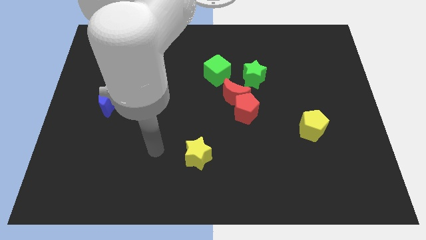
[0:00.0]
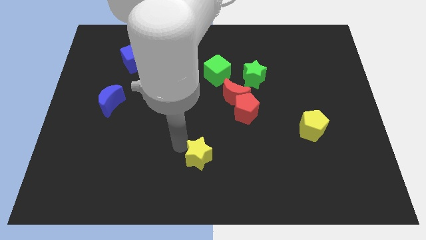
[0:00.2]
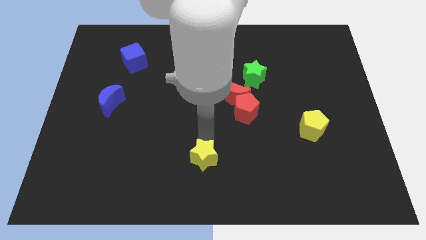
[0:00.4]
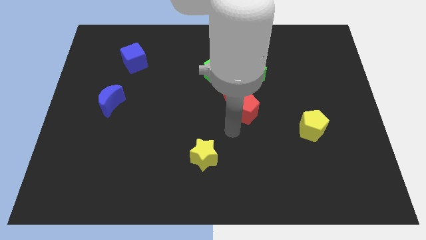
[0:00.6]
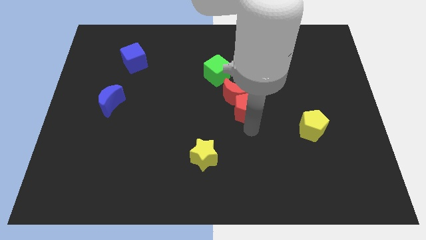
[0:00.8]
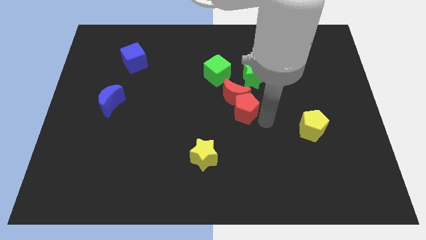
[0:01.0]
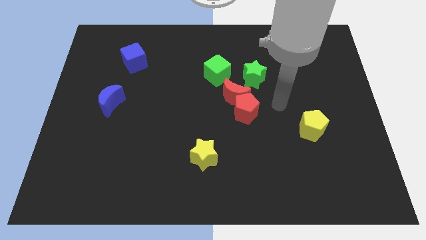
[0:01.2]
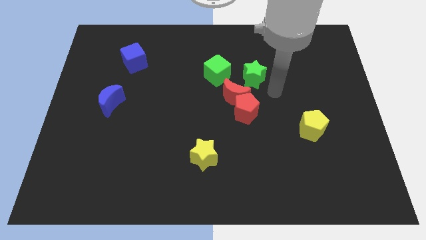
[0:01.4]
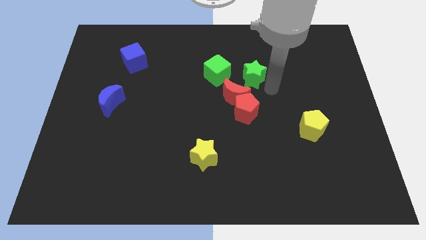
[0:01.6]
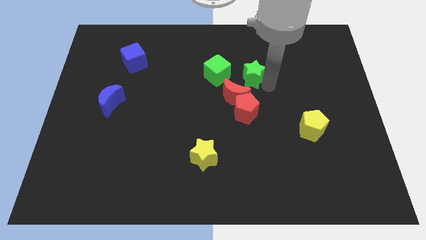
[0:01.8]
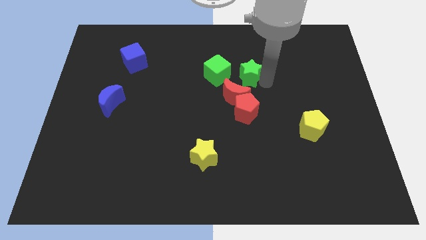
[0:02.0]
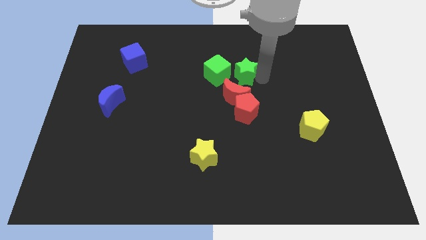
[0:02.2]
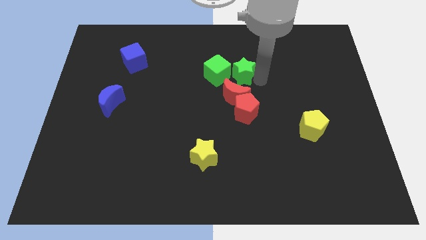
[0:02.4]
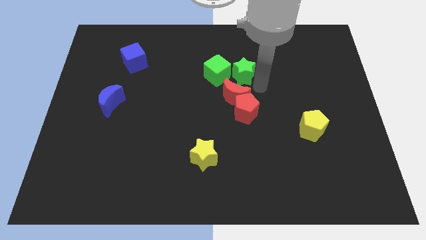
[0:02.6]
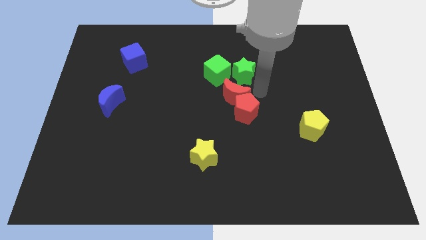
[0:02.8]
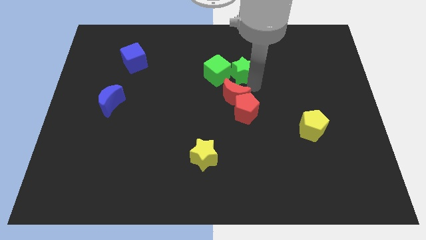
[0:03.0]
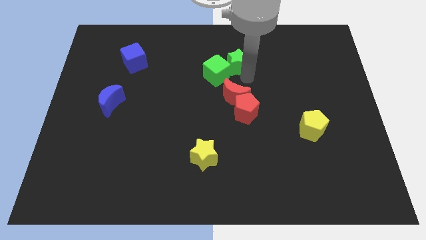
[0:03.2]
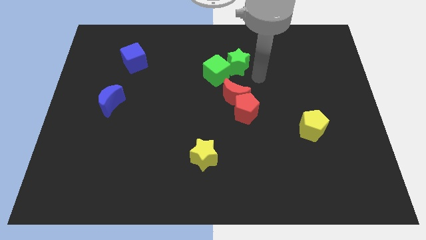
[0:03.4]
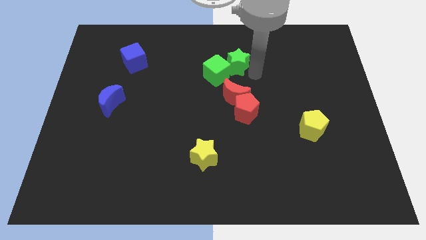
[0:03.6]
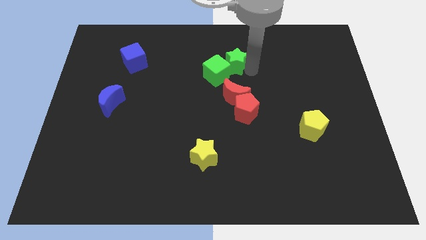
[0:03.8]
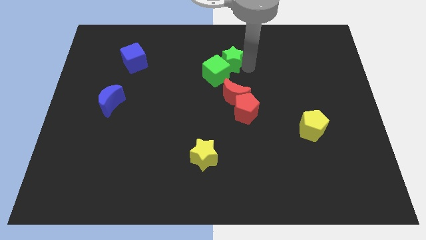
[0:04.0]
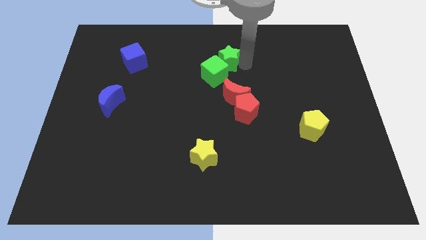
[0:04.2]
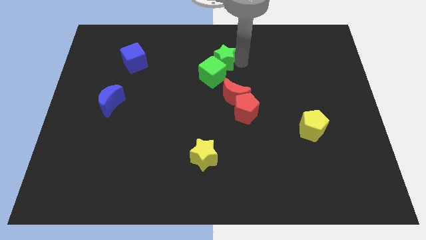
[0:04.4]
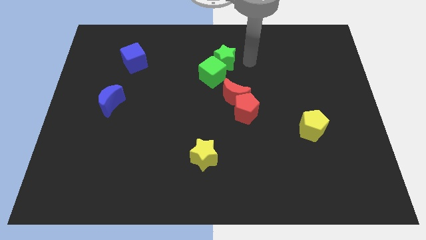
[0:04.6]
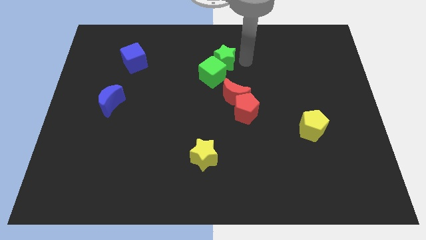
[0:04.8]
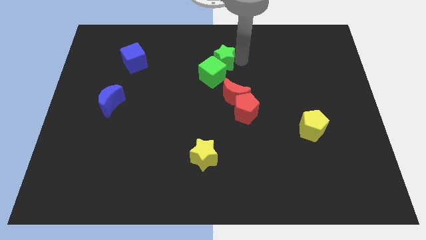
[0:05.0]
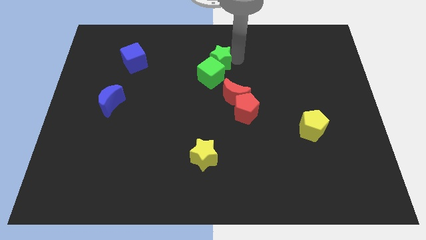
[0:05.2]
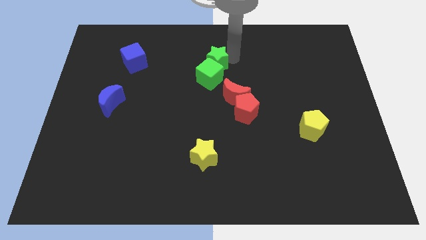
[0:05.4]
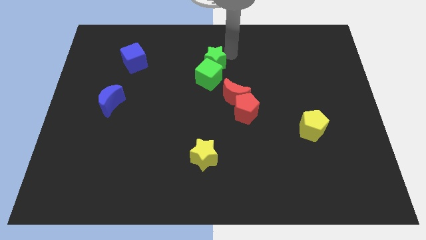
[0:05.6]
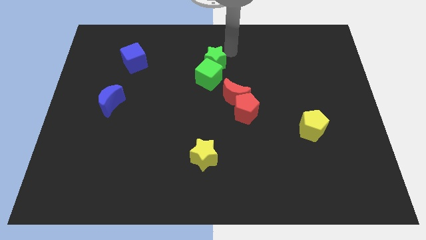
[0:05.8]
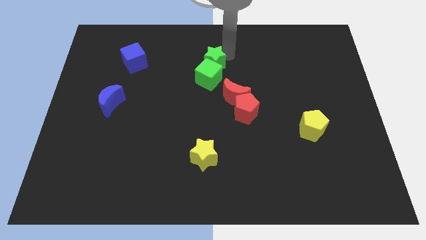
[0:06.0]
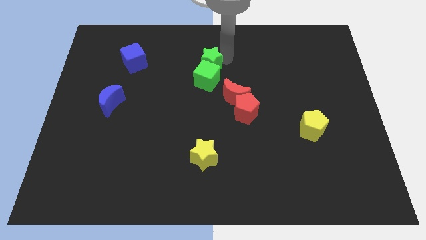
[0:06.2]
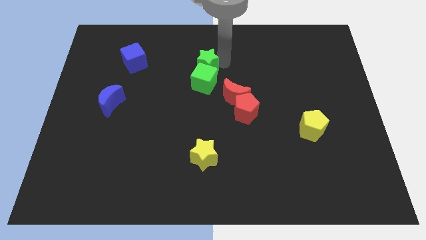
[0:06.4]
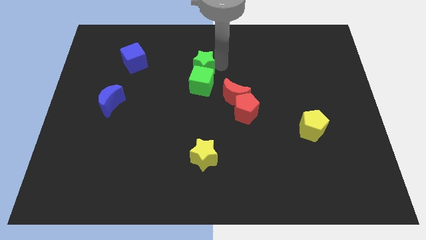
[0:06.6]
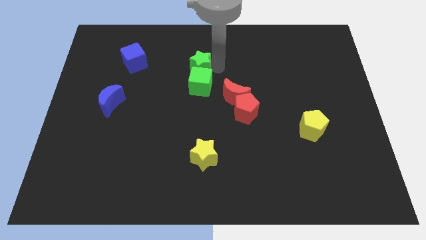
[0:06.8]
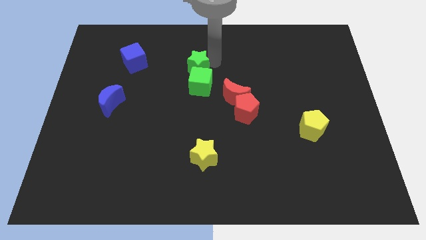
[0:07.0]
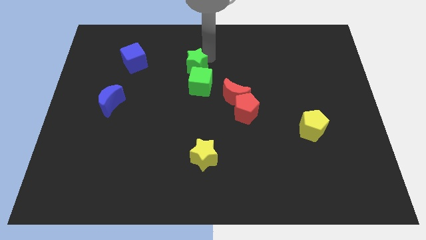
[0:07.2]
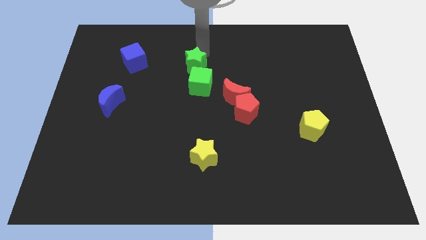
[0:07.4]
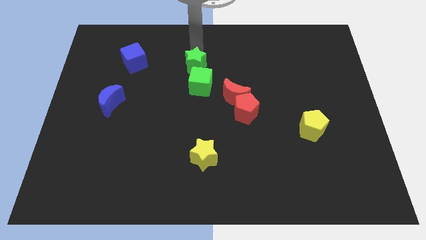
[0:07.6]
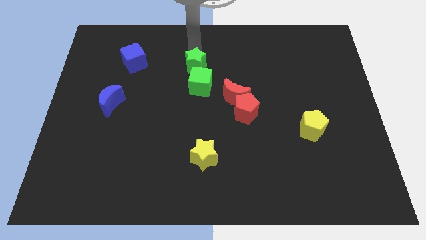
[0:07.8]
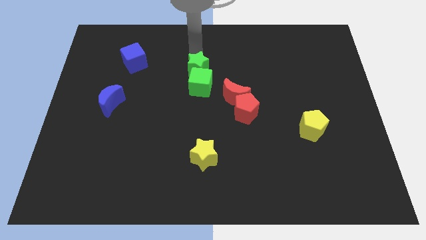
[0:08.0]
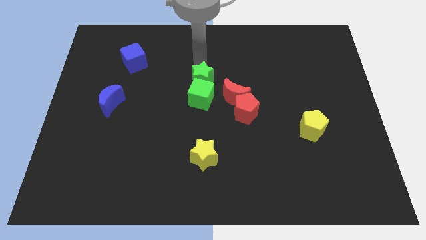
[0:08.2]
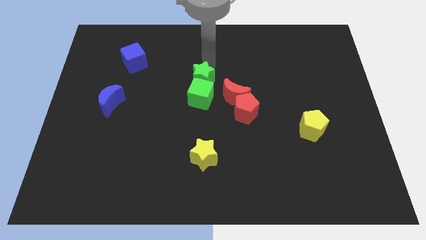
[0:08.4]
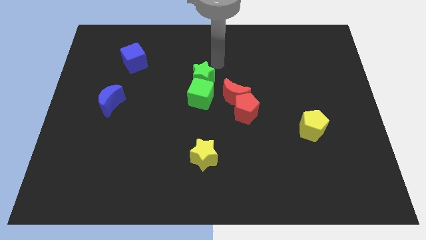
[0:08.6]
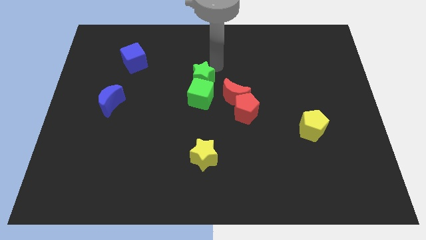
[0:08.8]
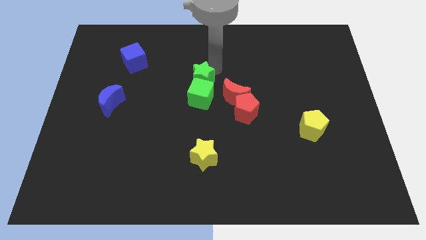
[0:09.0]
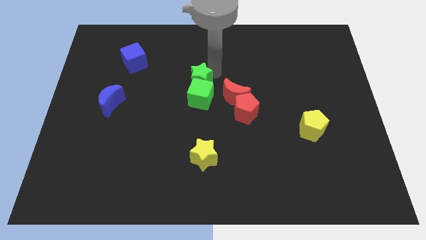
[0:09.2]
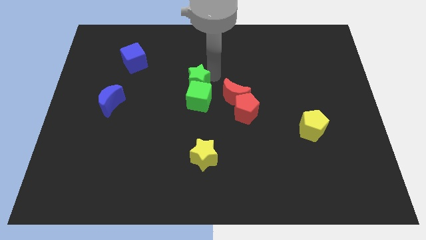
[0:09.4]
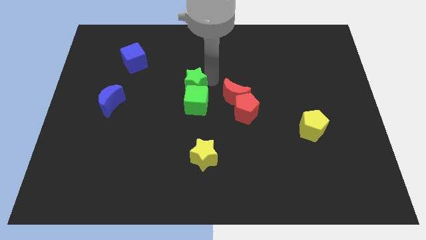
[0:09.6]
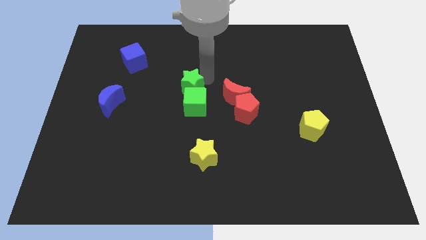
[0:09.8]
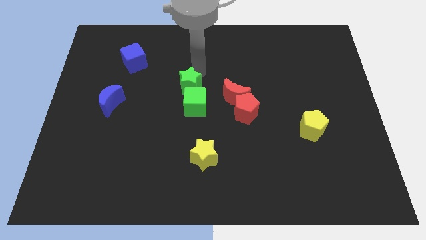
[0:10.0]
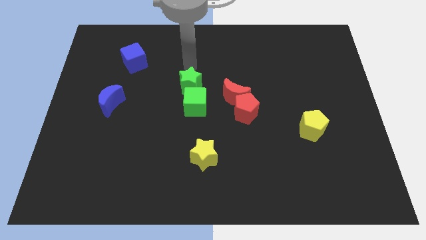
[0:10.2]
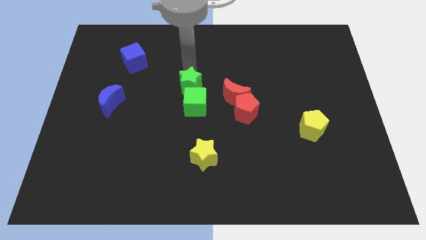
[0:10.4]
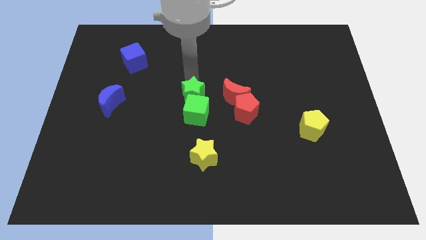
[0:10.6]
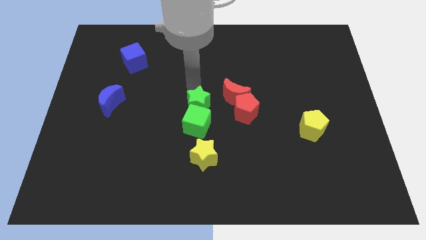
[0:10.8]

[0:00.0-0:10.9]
slide the green star to the top side of the yellow star

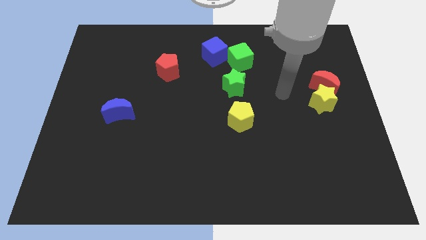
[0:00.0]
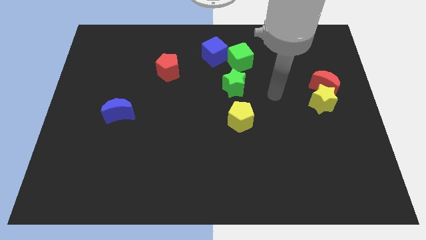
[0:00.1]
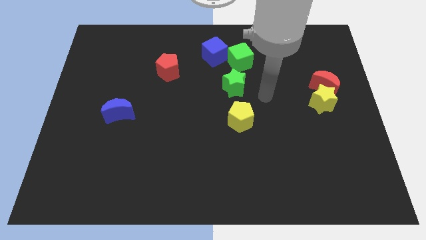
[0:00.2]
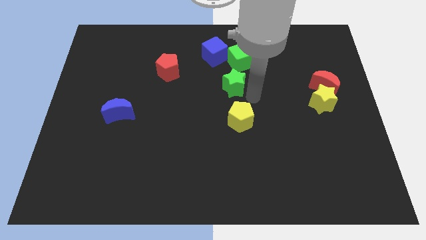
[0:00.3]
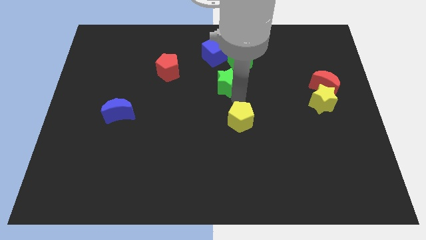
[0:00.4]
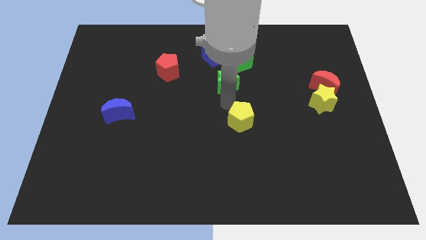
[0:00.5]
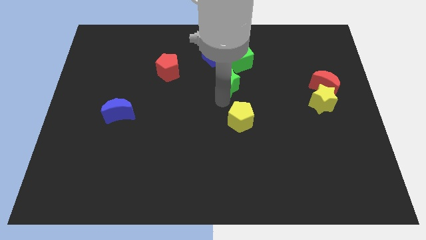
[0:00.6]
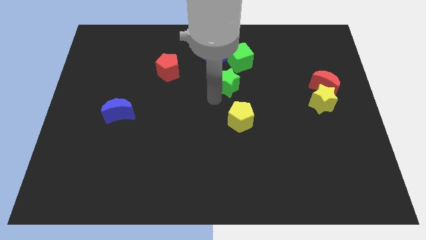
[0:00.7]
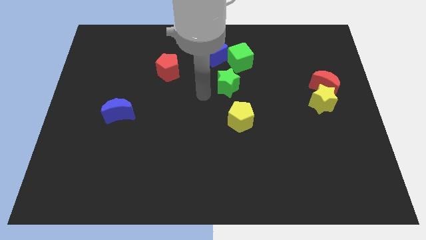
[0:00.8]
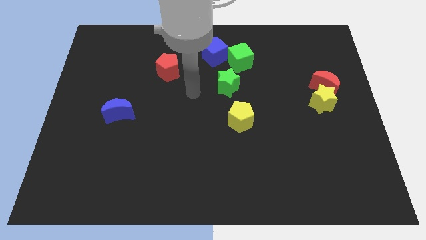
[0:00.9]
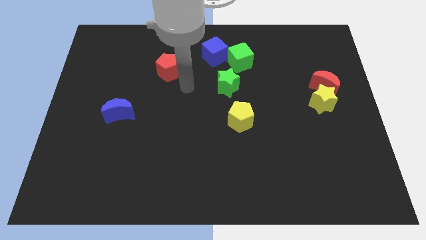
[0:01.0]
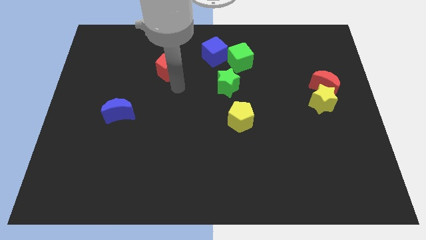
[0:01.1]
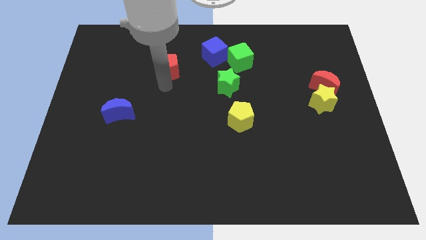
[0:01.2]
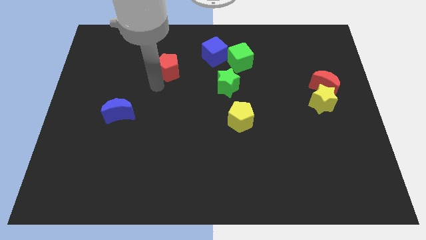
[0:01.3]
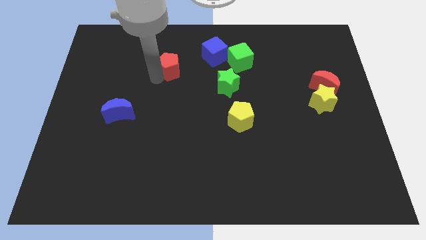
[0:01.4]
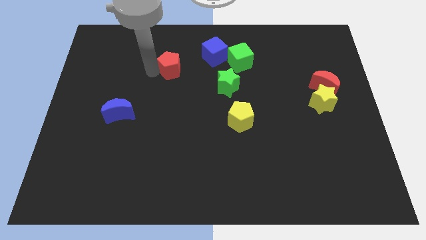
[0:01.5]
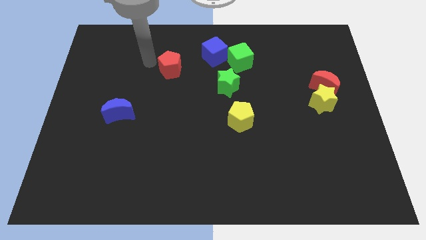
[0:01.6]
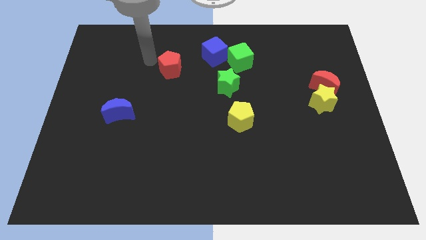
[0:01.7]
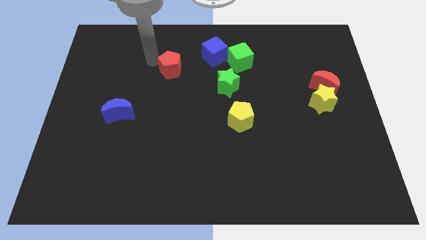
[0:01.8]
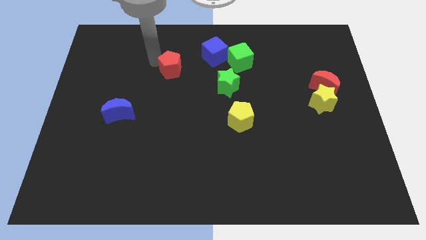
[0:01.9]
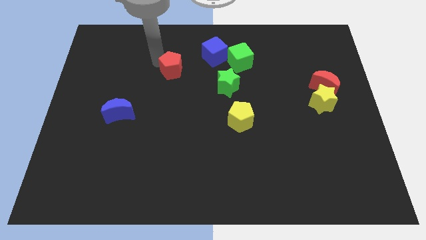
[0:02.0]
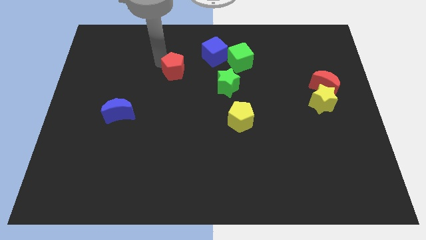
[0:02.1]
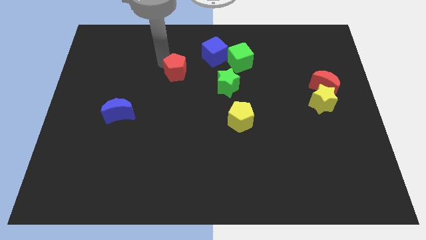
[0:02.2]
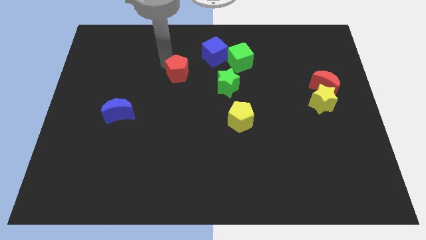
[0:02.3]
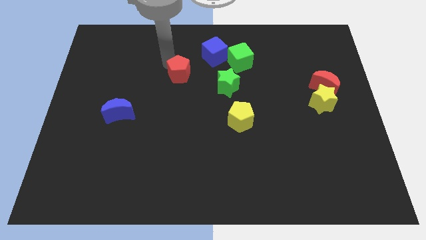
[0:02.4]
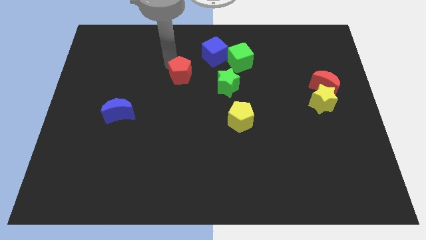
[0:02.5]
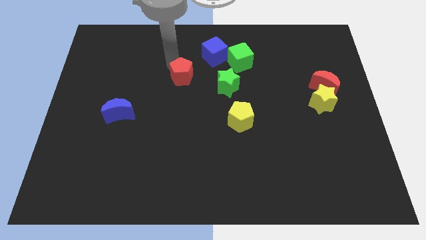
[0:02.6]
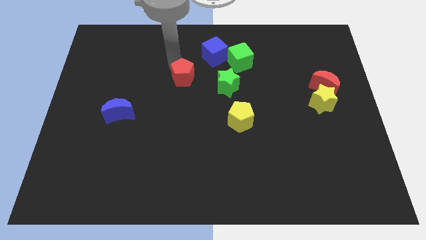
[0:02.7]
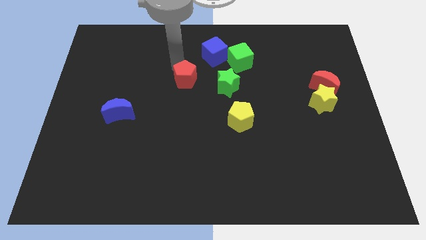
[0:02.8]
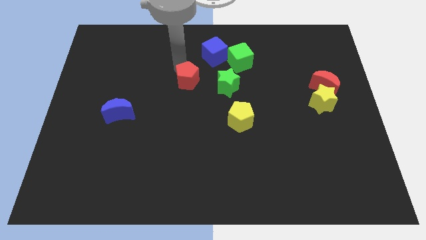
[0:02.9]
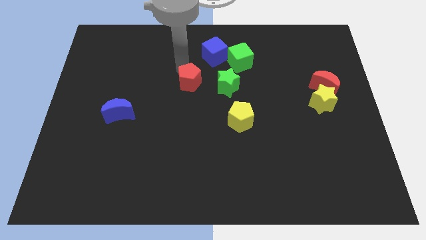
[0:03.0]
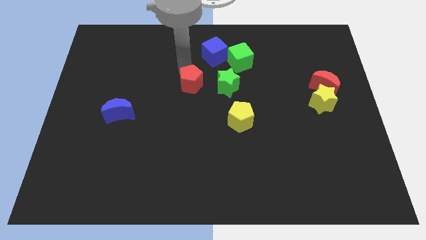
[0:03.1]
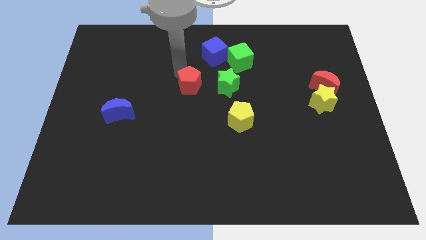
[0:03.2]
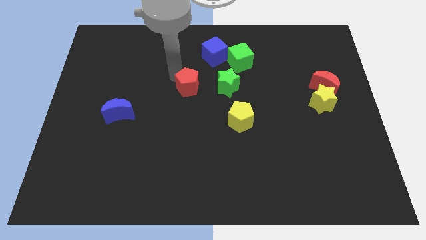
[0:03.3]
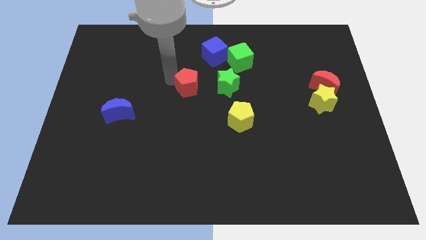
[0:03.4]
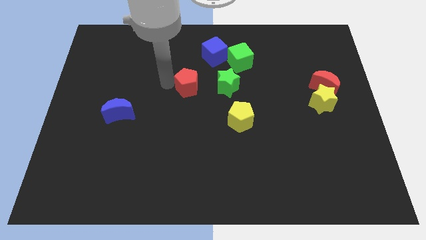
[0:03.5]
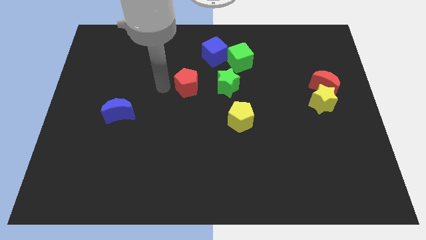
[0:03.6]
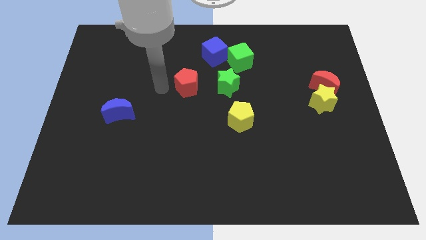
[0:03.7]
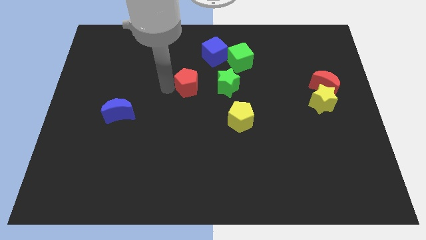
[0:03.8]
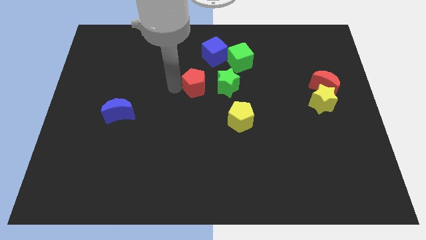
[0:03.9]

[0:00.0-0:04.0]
slide the red pentagon to the bottom of the blue cube
